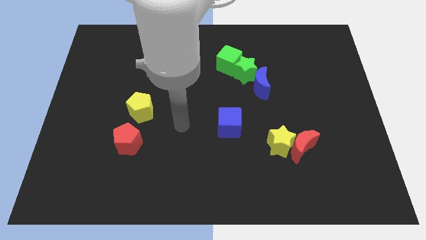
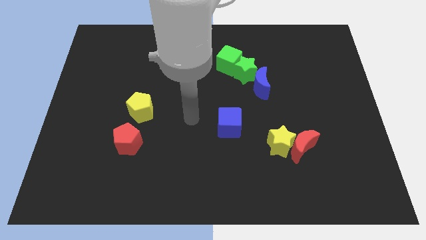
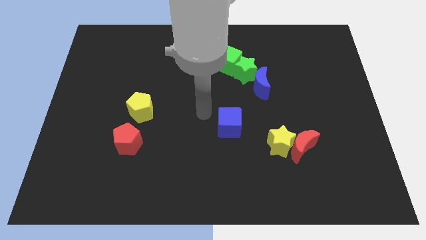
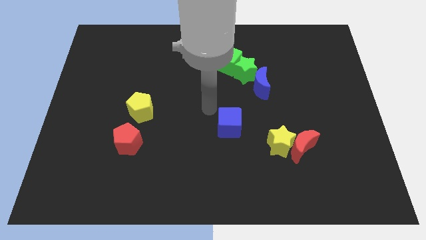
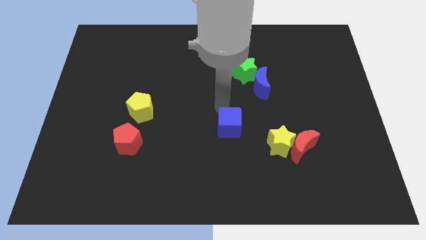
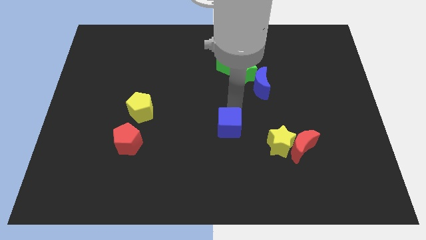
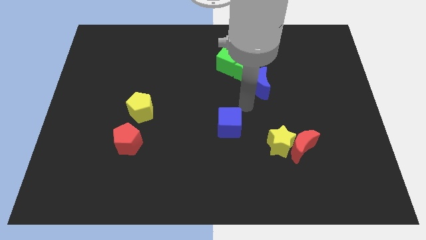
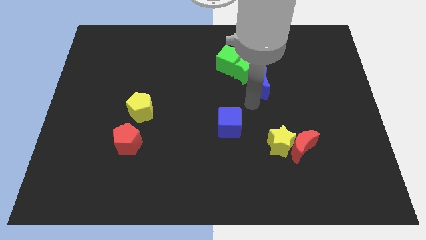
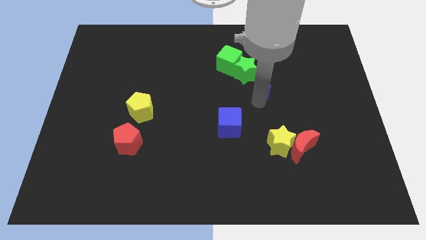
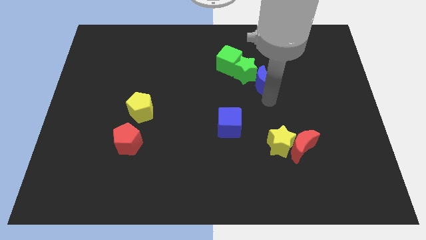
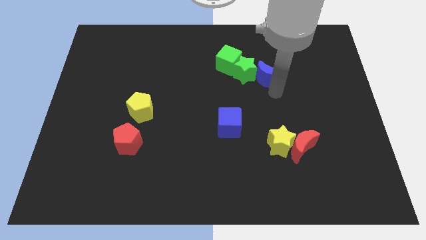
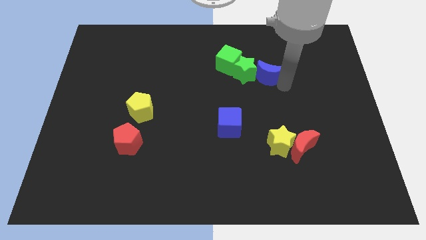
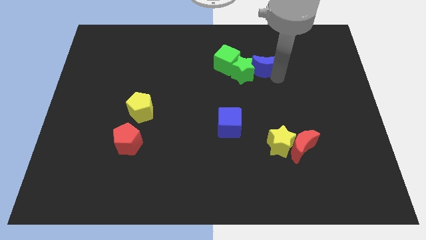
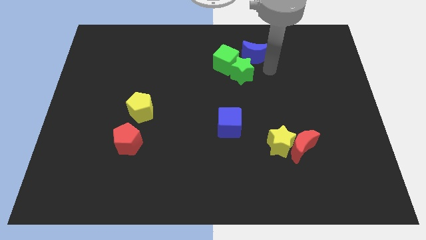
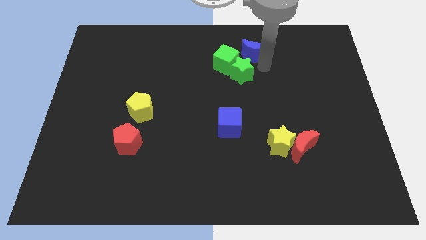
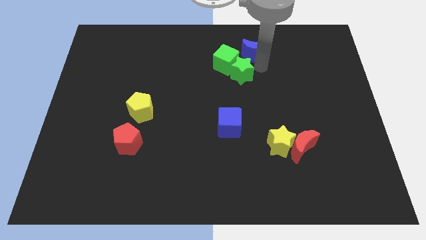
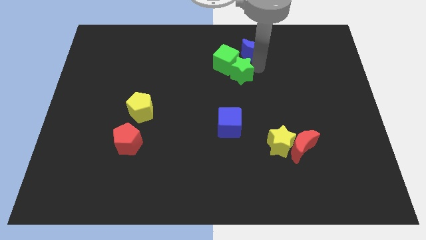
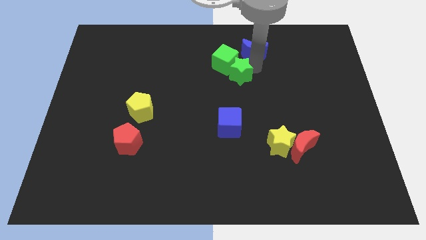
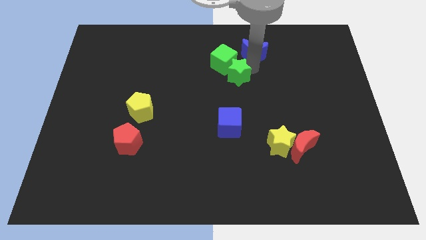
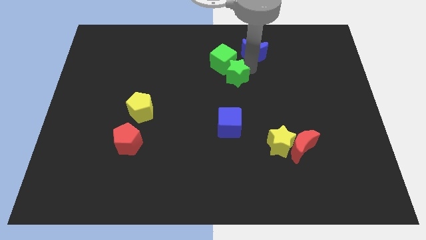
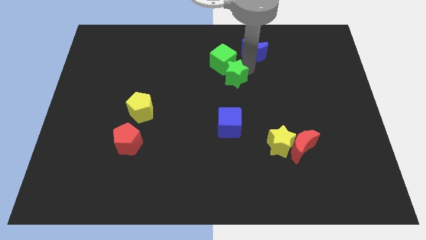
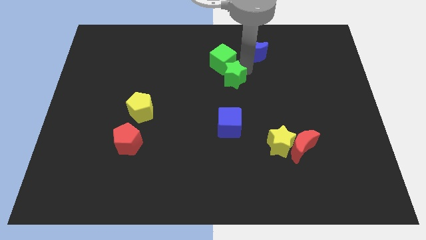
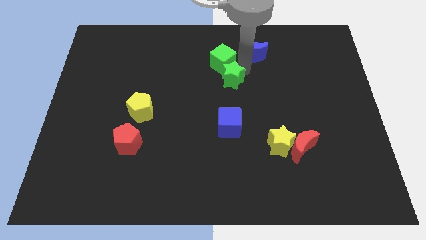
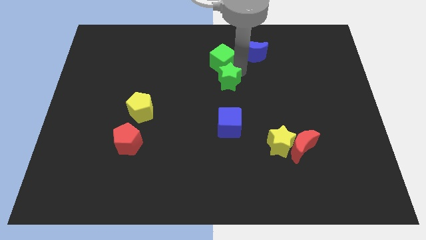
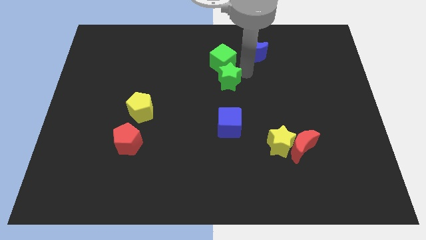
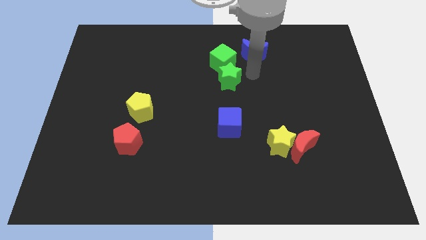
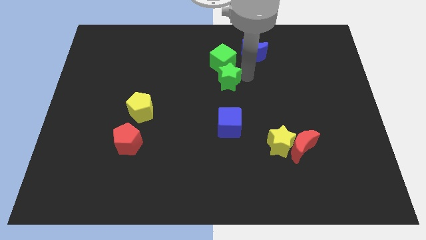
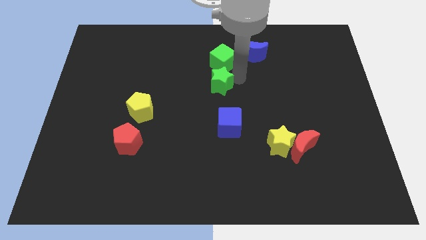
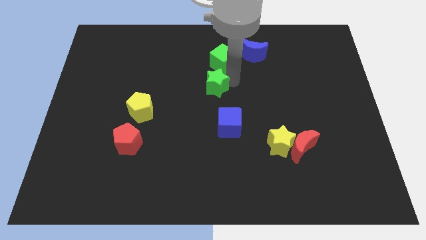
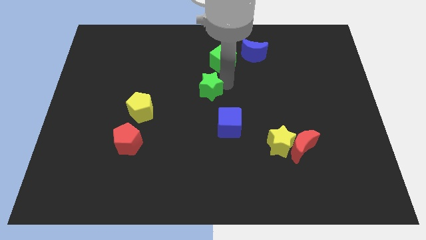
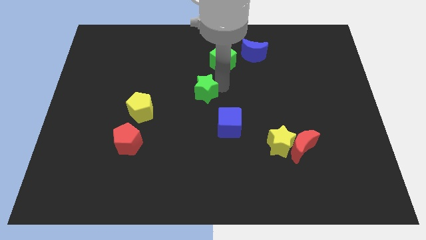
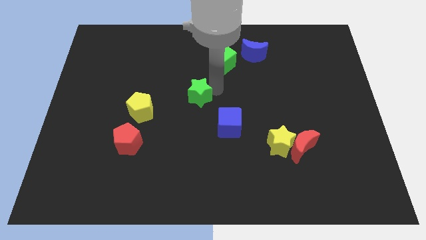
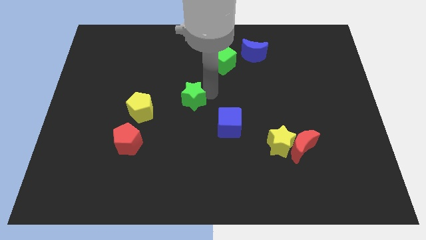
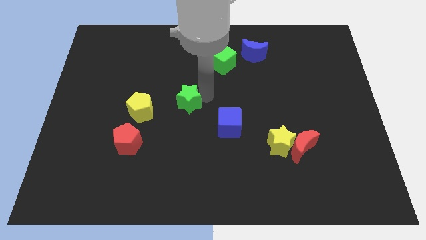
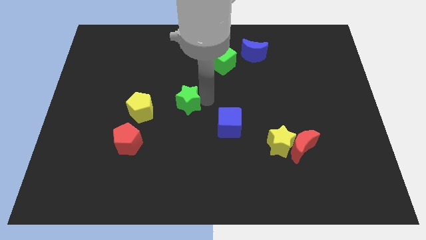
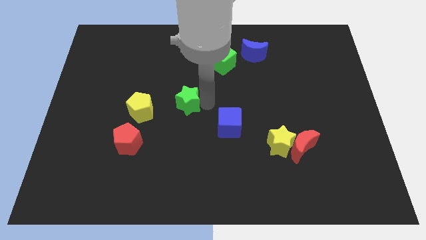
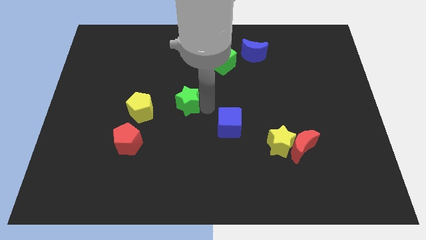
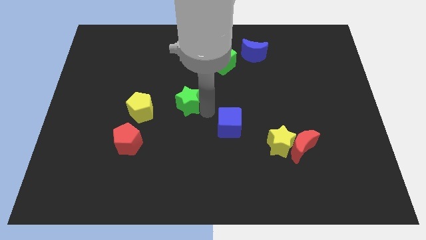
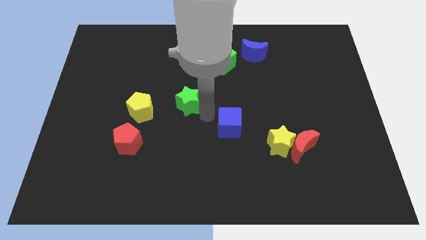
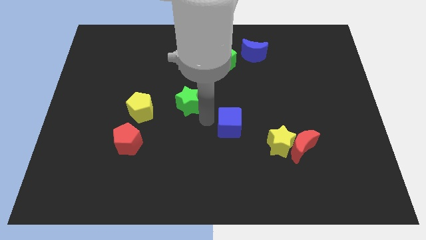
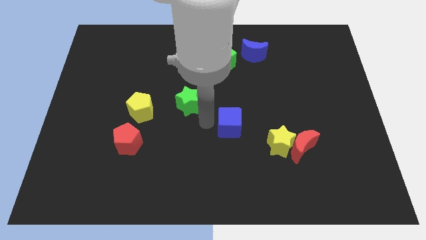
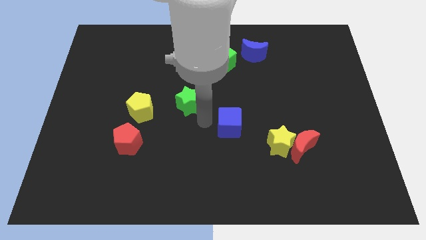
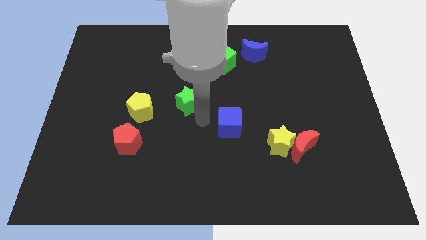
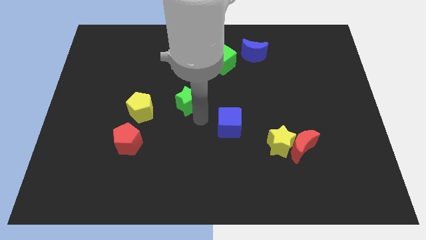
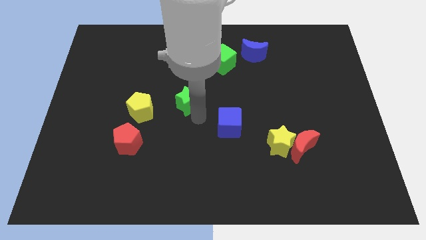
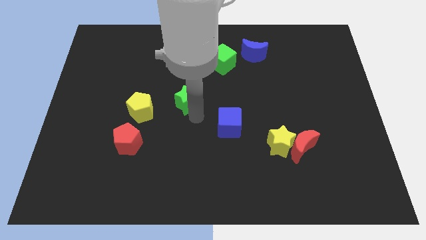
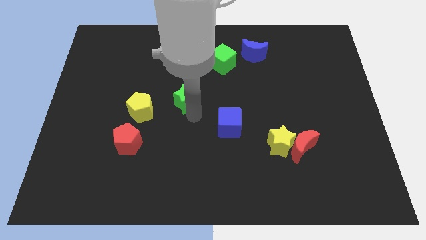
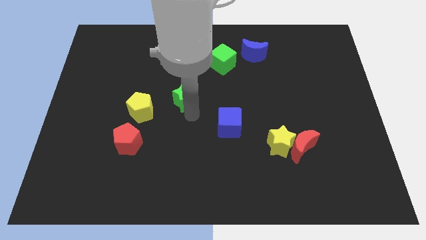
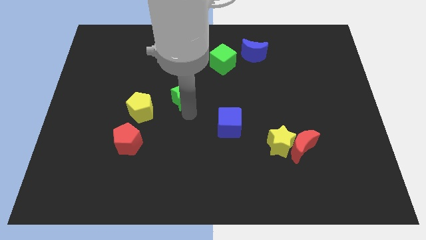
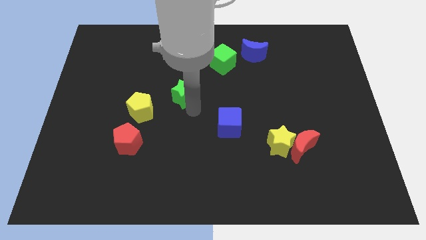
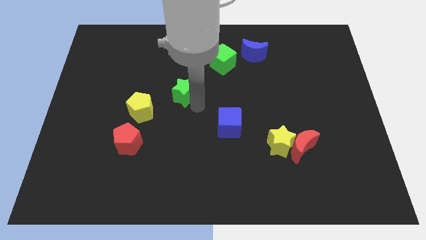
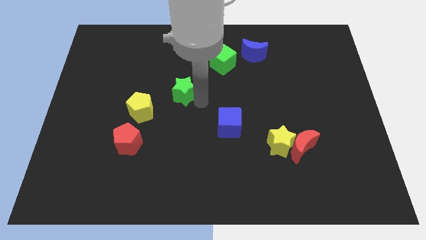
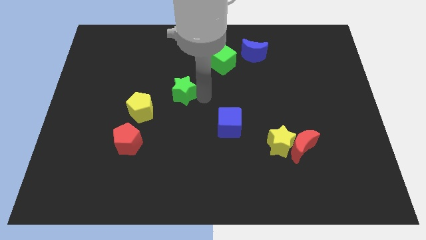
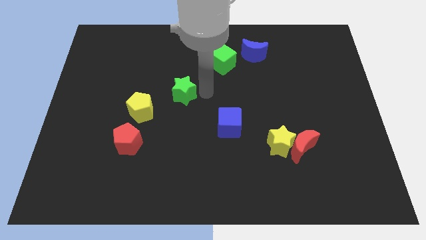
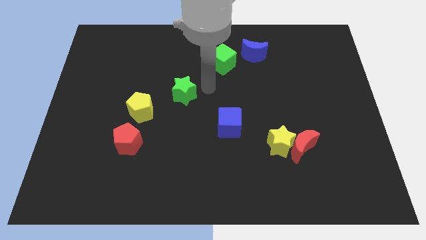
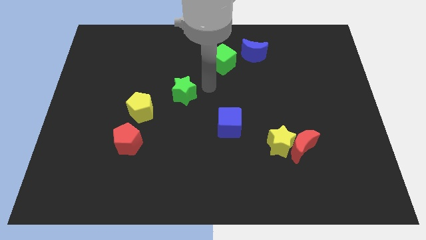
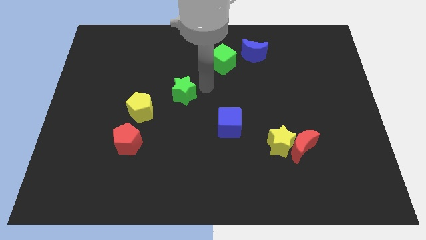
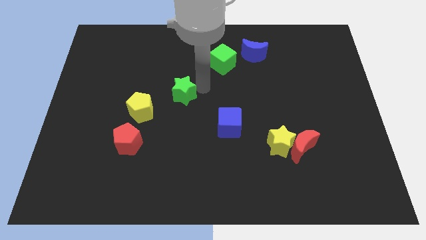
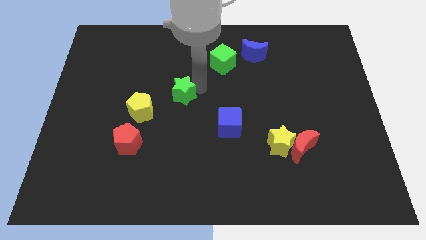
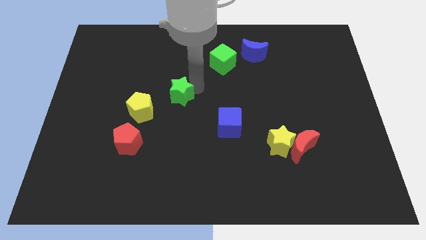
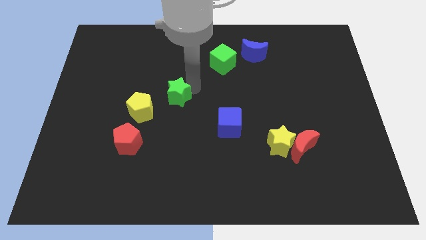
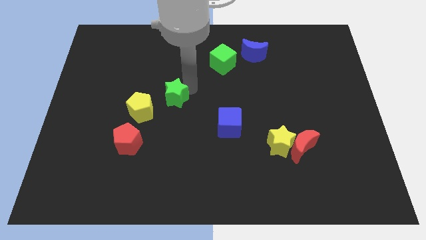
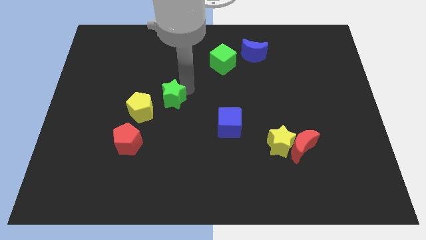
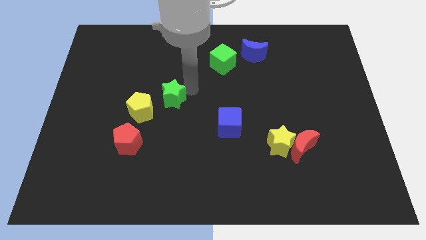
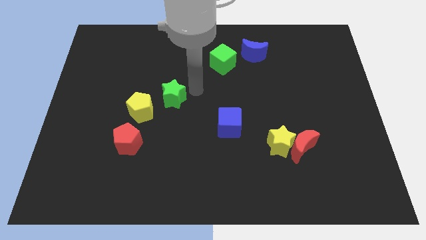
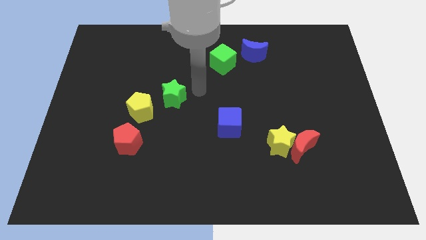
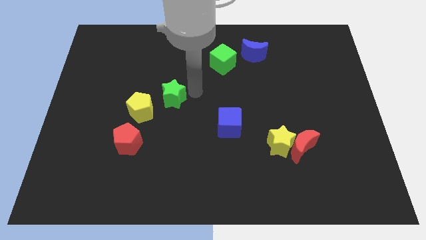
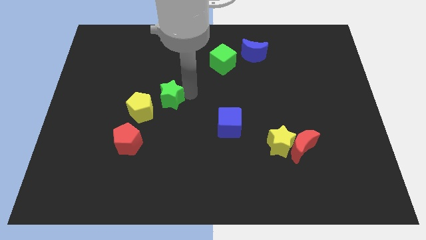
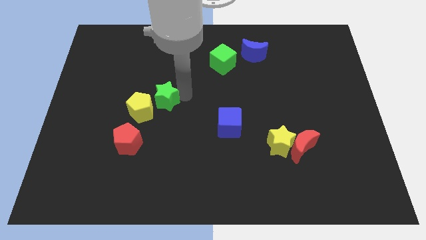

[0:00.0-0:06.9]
put the green star next to the yellow pentagon
